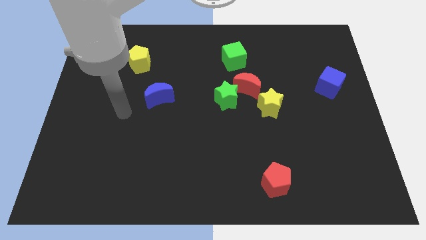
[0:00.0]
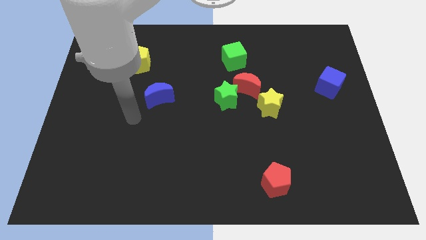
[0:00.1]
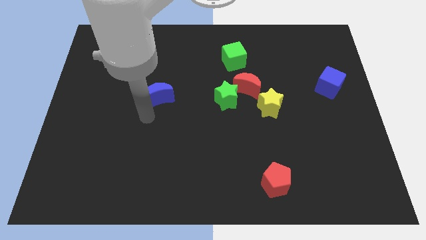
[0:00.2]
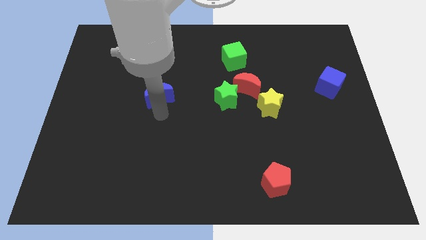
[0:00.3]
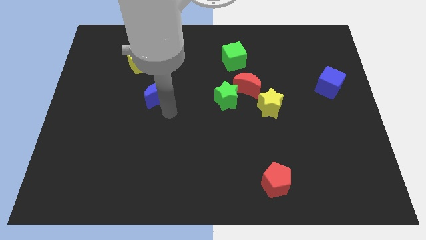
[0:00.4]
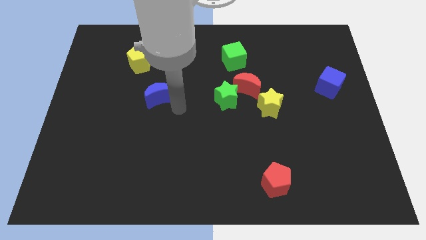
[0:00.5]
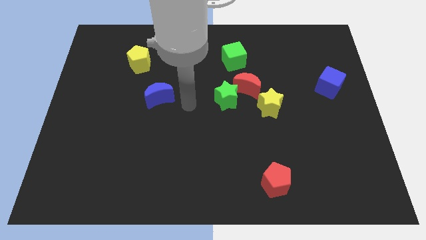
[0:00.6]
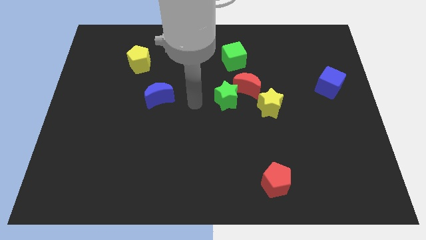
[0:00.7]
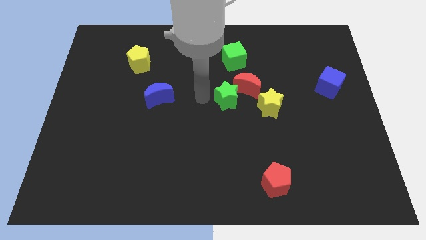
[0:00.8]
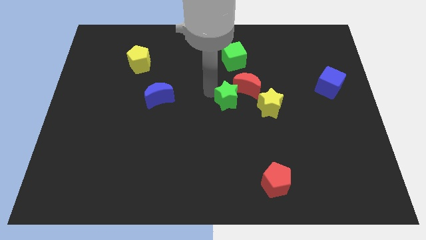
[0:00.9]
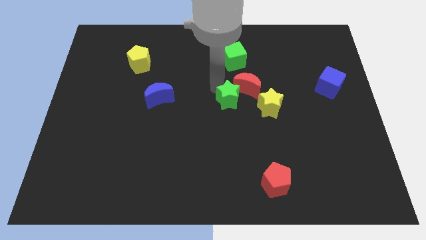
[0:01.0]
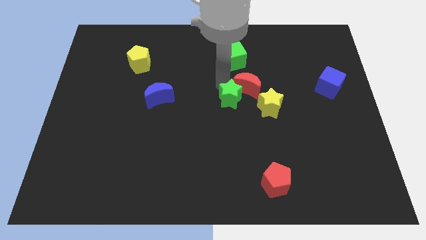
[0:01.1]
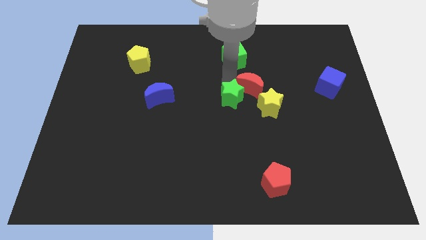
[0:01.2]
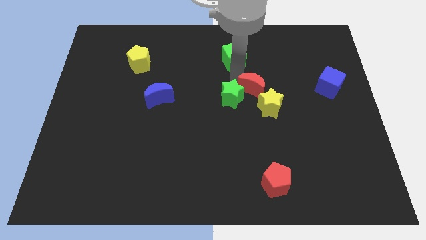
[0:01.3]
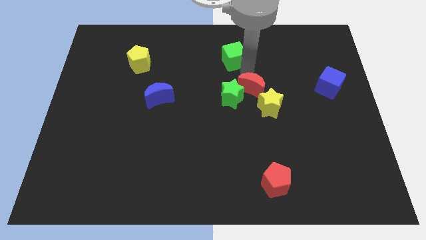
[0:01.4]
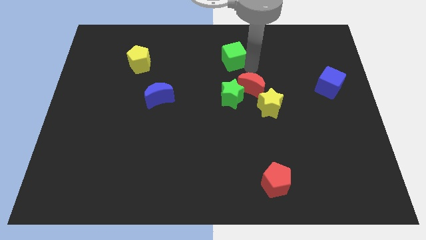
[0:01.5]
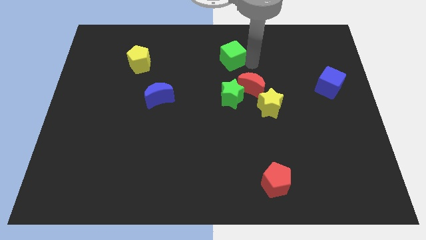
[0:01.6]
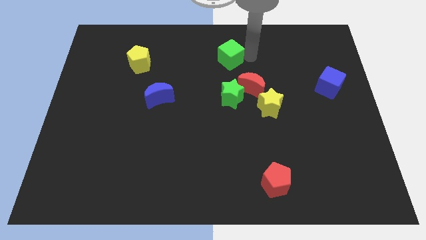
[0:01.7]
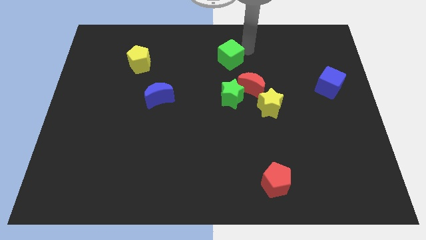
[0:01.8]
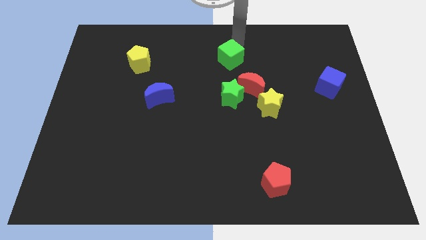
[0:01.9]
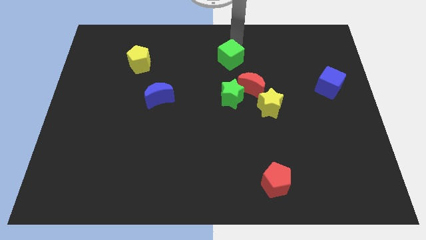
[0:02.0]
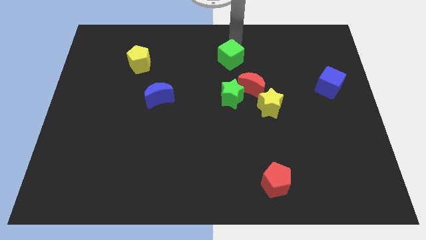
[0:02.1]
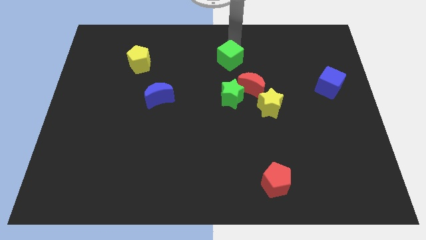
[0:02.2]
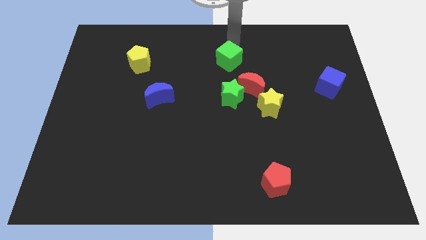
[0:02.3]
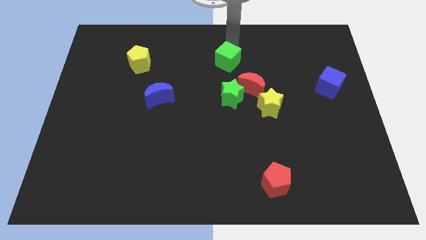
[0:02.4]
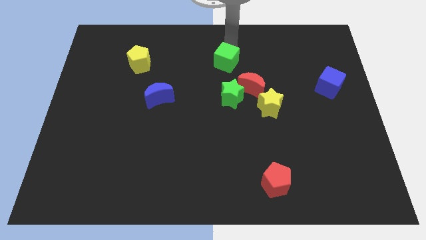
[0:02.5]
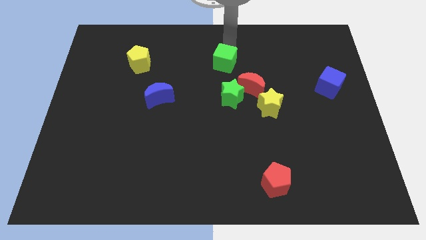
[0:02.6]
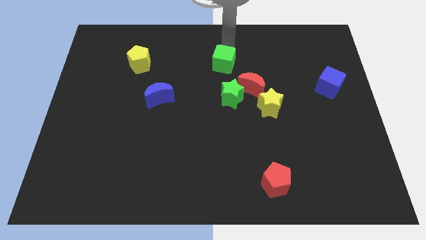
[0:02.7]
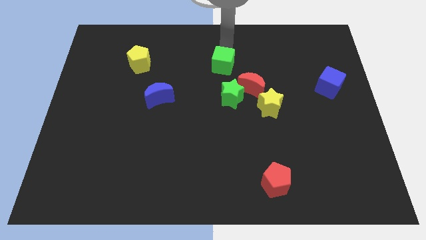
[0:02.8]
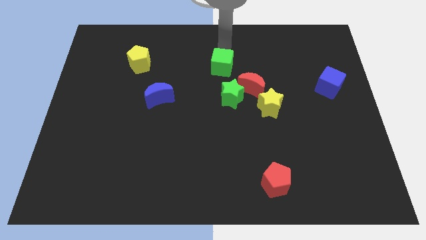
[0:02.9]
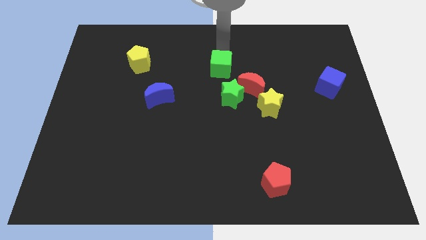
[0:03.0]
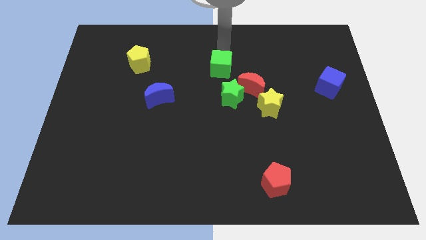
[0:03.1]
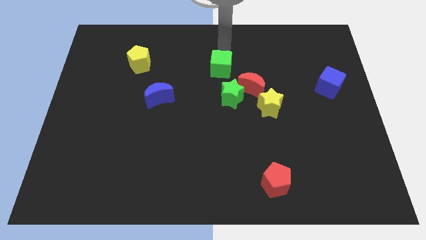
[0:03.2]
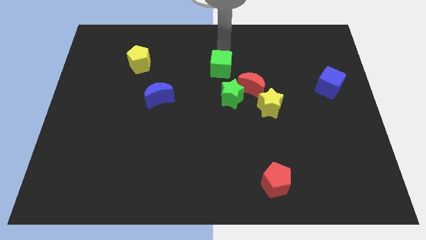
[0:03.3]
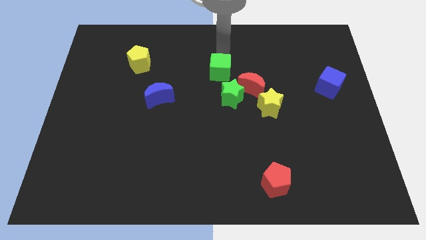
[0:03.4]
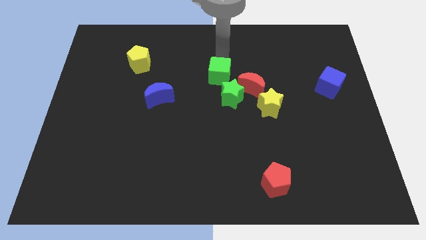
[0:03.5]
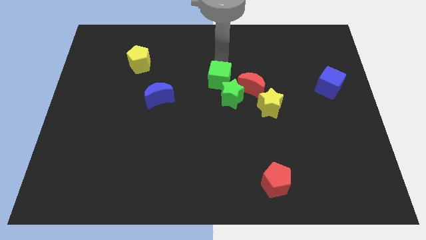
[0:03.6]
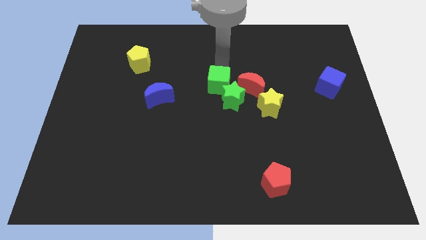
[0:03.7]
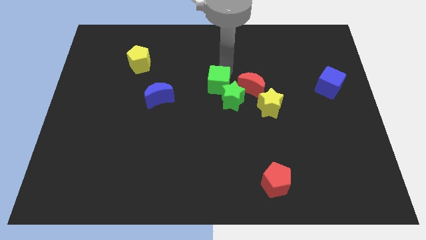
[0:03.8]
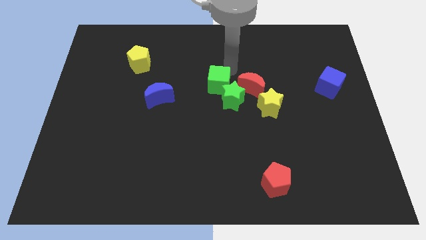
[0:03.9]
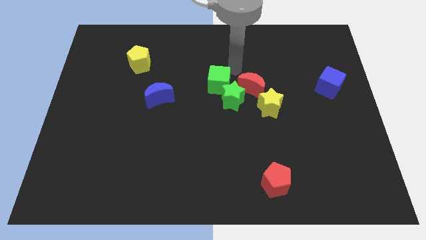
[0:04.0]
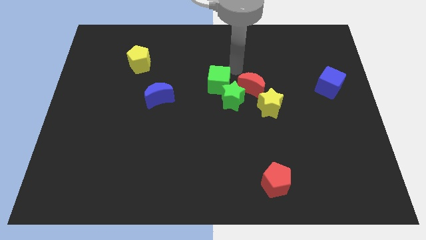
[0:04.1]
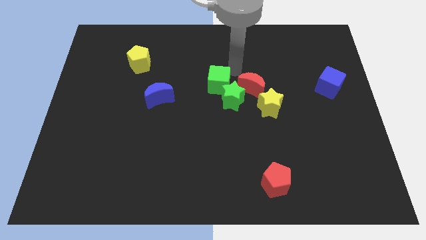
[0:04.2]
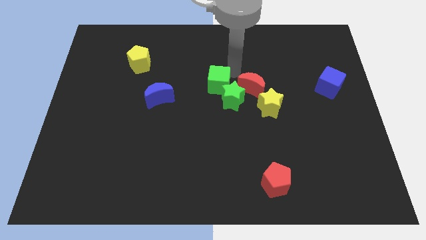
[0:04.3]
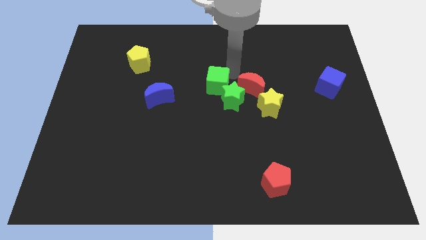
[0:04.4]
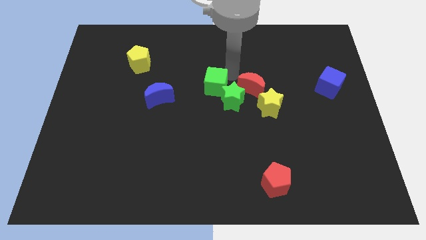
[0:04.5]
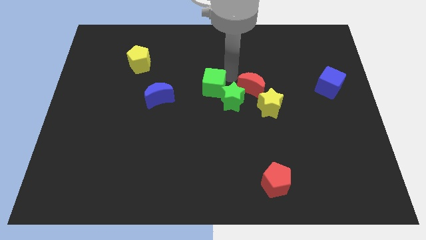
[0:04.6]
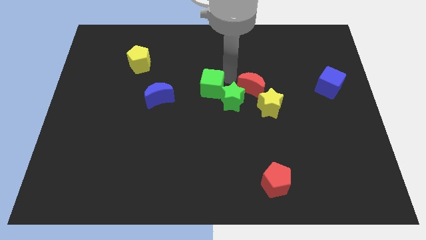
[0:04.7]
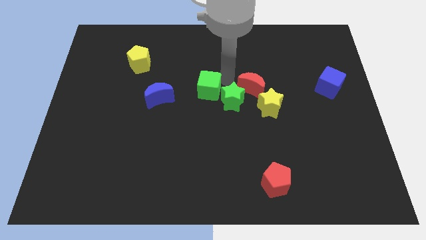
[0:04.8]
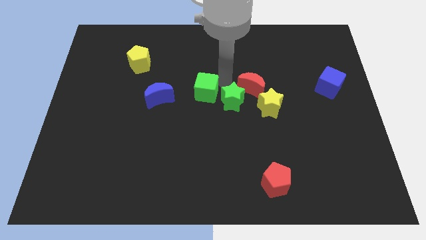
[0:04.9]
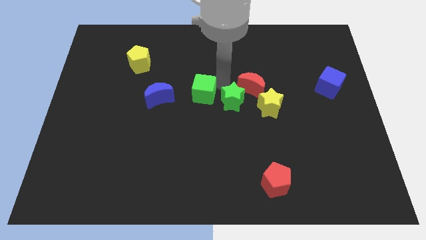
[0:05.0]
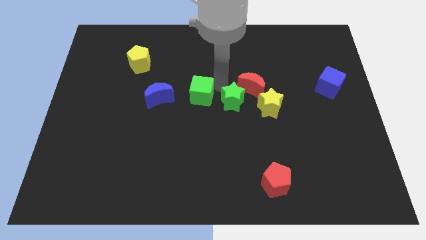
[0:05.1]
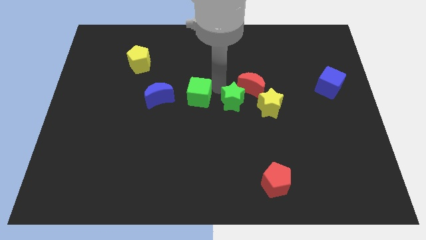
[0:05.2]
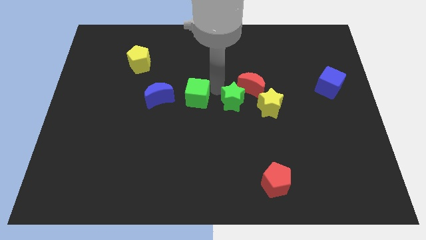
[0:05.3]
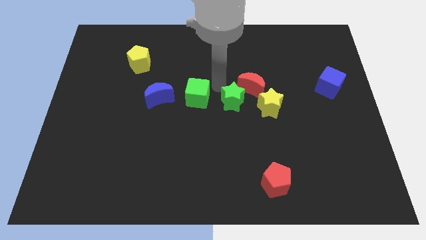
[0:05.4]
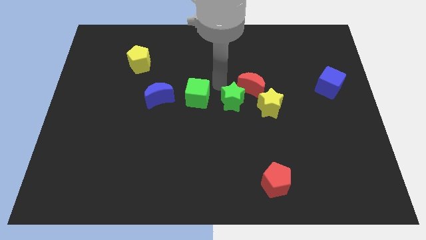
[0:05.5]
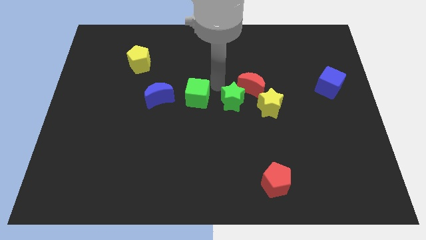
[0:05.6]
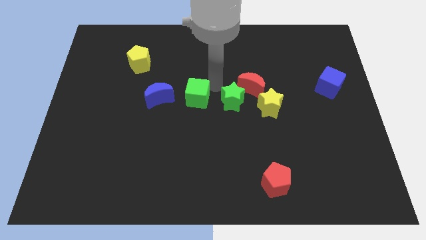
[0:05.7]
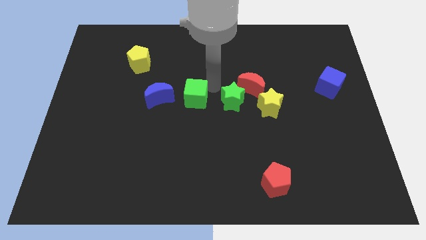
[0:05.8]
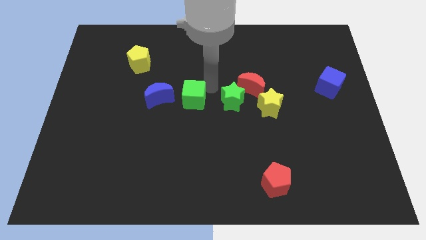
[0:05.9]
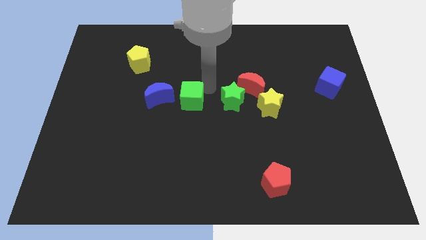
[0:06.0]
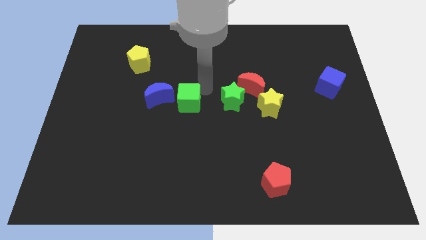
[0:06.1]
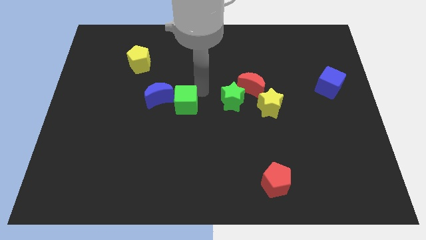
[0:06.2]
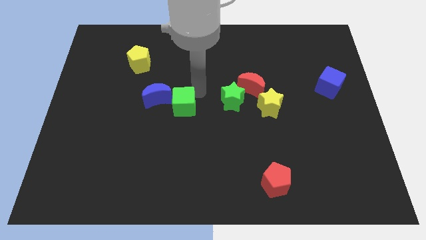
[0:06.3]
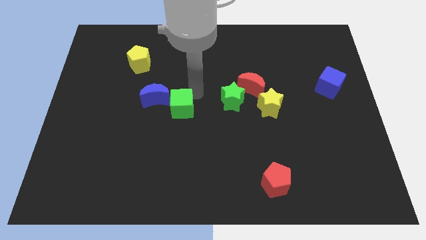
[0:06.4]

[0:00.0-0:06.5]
move the green cube diagonally downwards and to the left

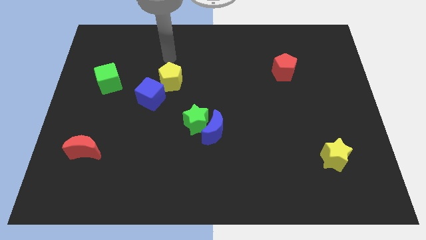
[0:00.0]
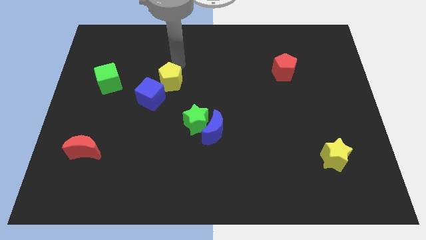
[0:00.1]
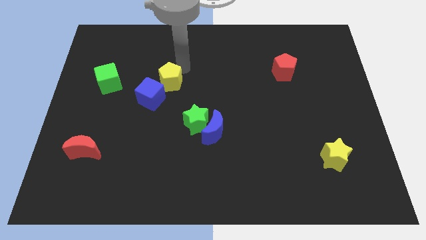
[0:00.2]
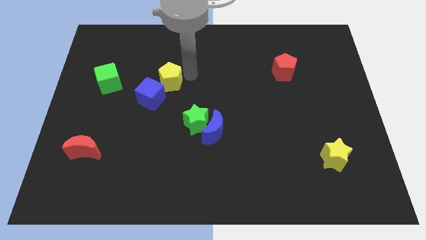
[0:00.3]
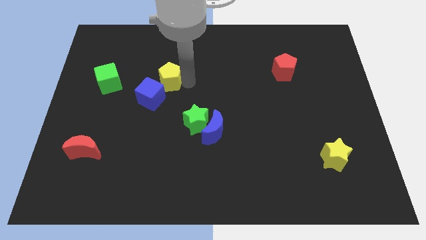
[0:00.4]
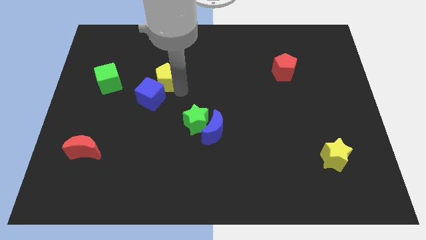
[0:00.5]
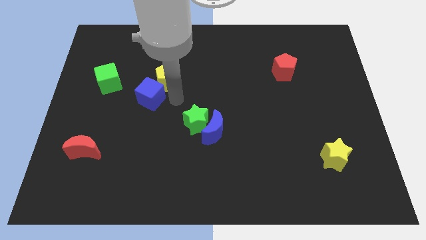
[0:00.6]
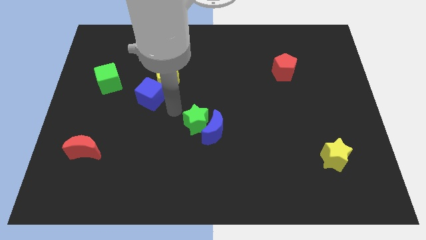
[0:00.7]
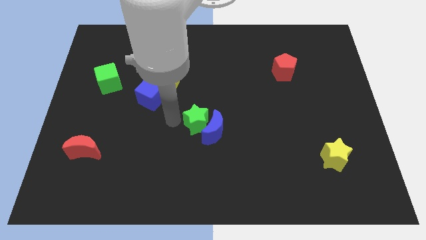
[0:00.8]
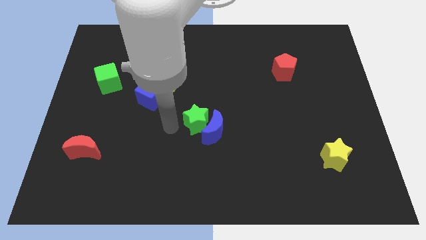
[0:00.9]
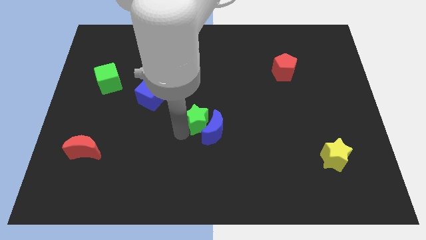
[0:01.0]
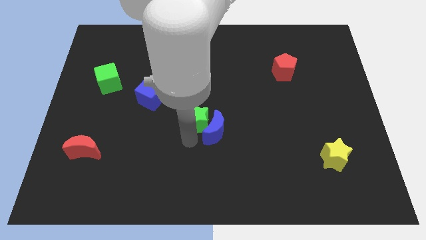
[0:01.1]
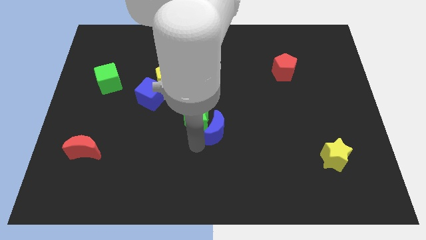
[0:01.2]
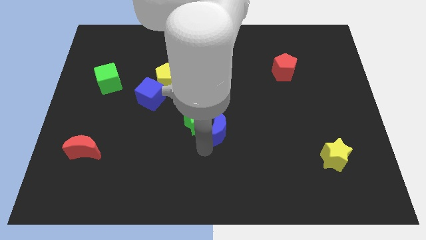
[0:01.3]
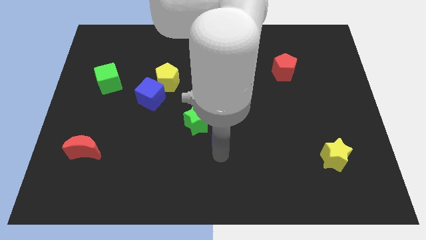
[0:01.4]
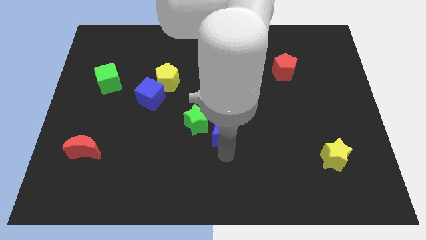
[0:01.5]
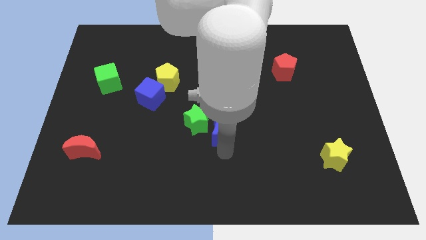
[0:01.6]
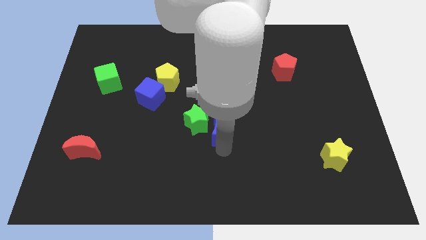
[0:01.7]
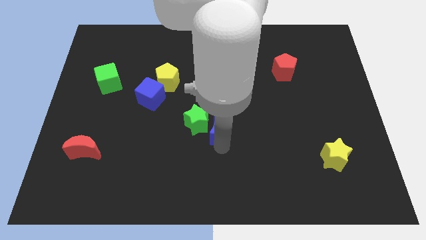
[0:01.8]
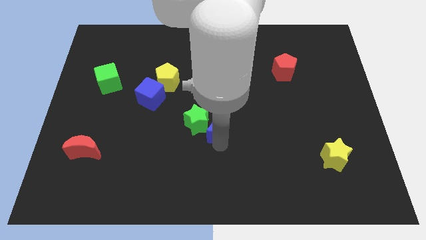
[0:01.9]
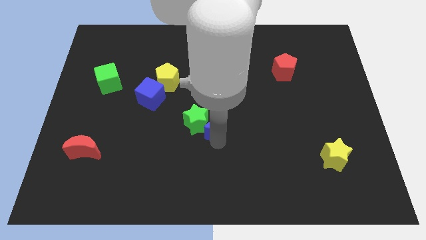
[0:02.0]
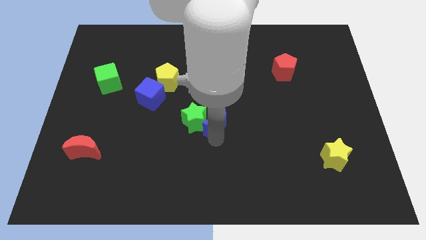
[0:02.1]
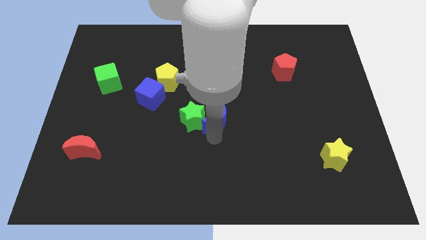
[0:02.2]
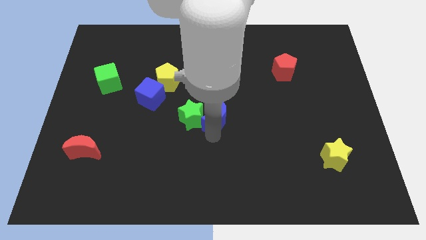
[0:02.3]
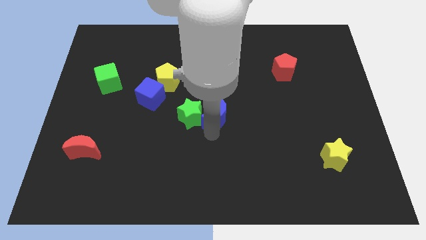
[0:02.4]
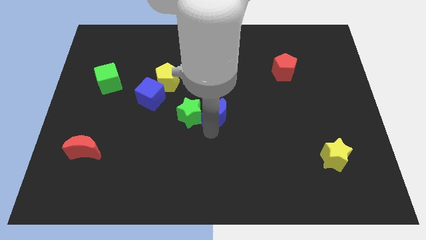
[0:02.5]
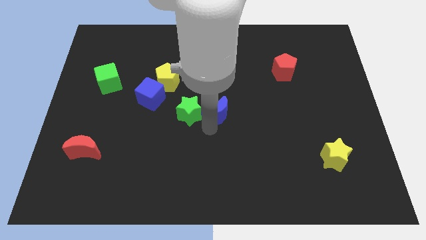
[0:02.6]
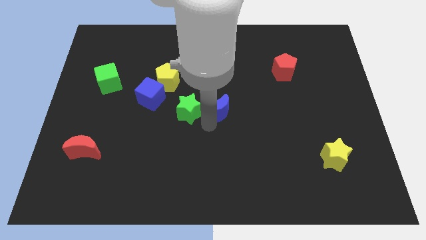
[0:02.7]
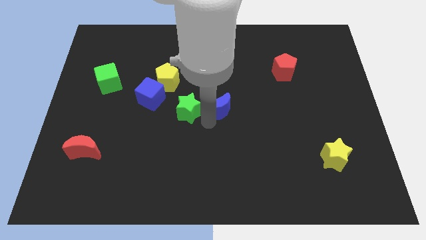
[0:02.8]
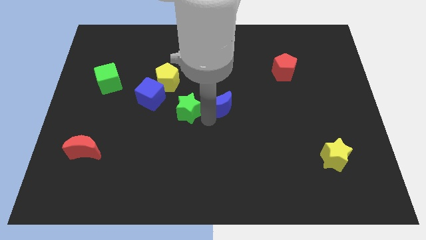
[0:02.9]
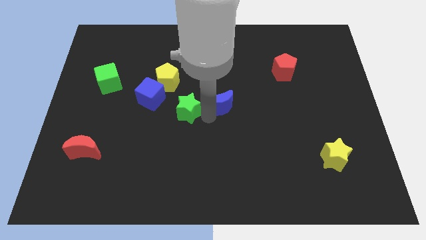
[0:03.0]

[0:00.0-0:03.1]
push the blue moon upwards a little
